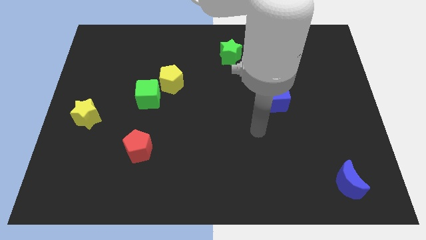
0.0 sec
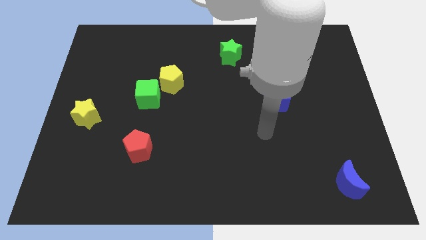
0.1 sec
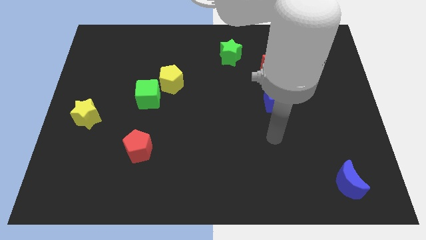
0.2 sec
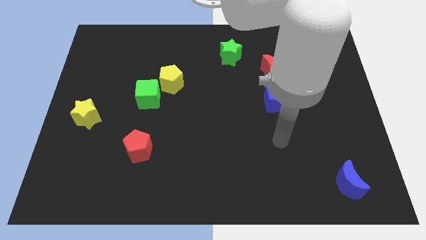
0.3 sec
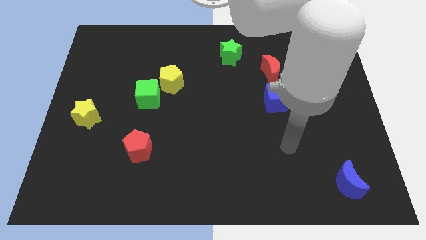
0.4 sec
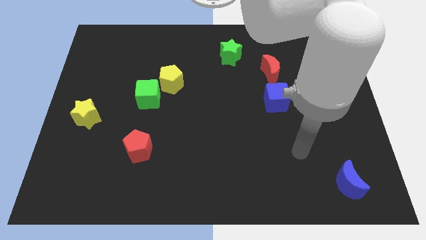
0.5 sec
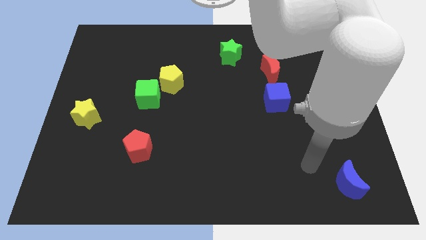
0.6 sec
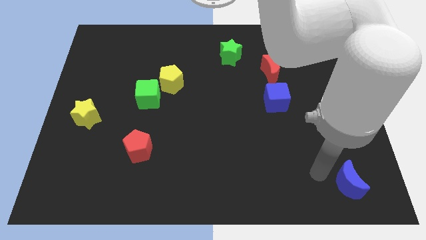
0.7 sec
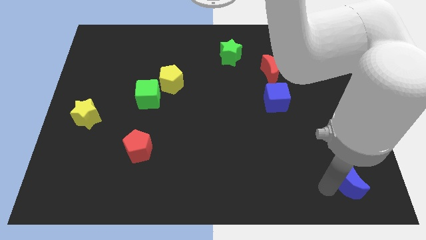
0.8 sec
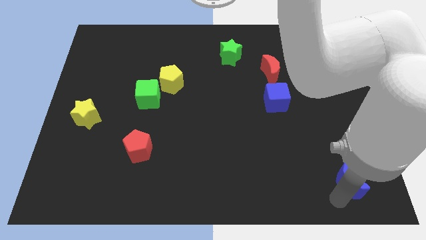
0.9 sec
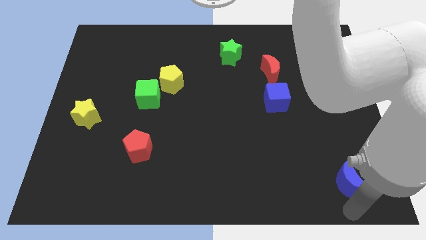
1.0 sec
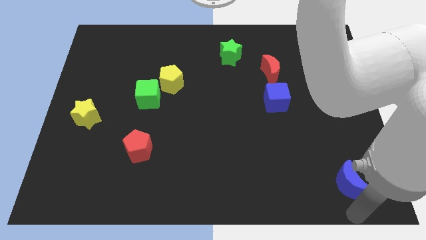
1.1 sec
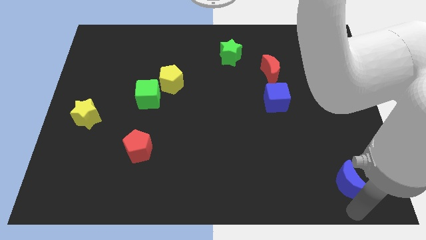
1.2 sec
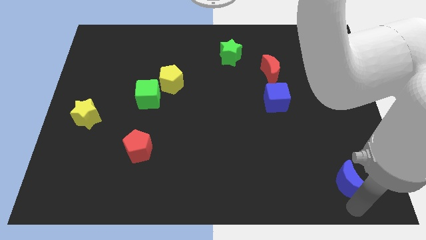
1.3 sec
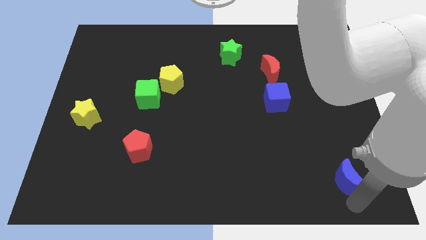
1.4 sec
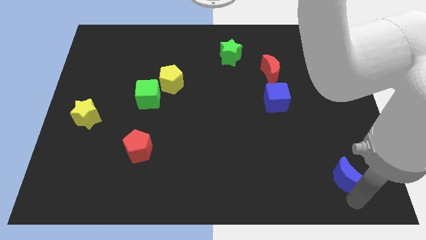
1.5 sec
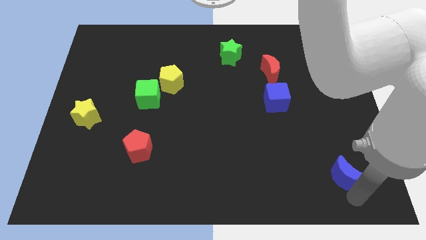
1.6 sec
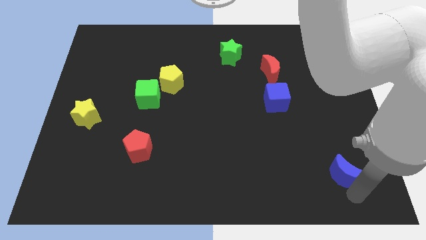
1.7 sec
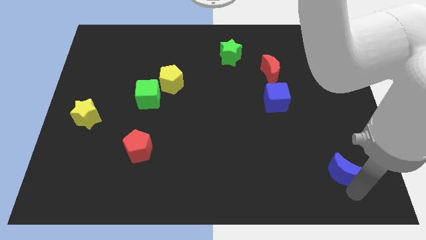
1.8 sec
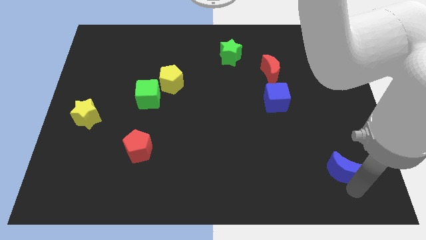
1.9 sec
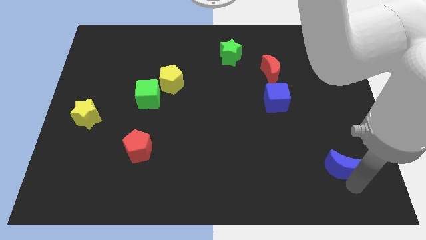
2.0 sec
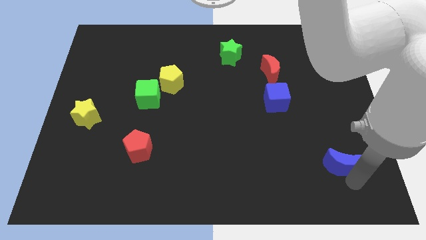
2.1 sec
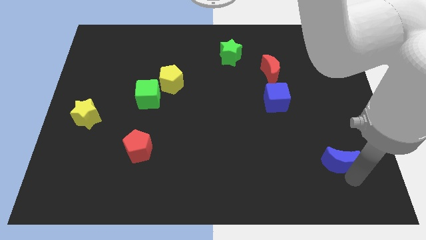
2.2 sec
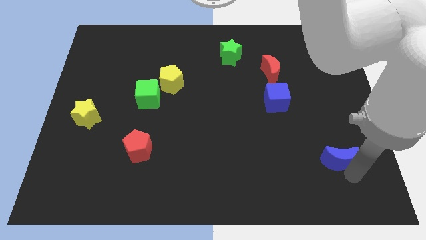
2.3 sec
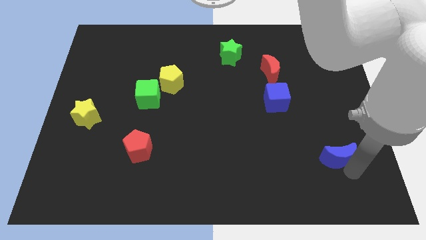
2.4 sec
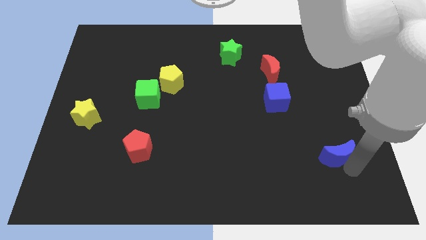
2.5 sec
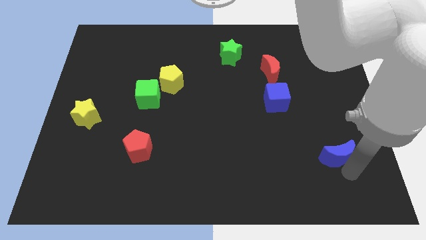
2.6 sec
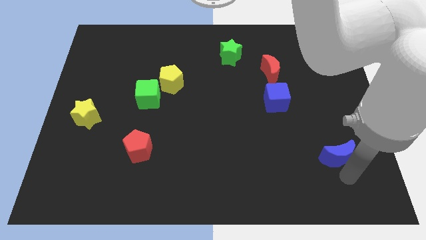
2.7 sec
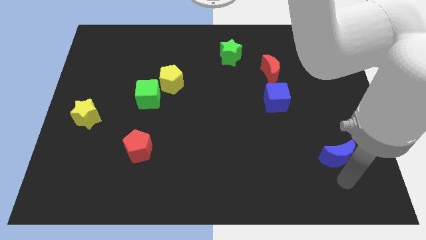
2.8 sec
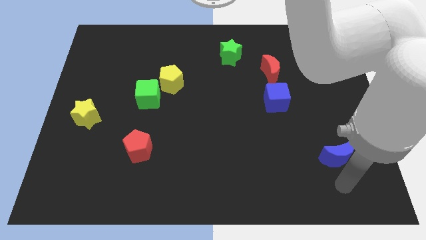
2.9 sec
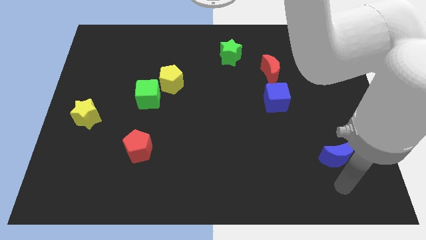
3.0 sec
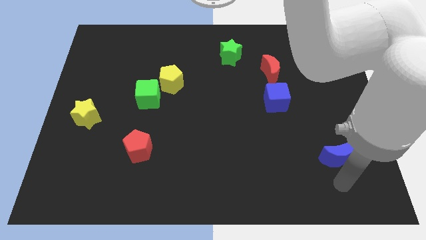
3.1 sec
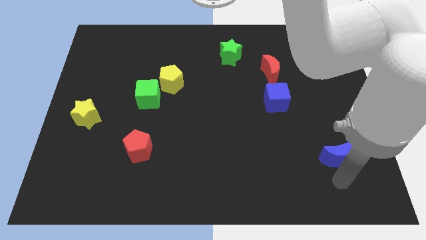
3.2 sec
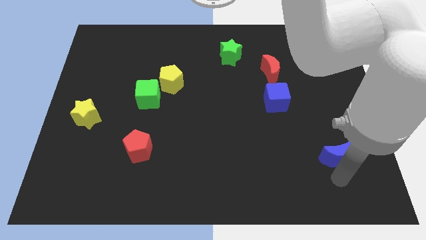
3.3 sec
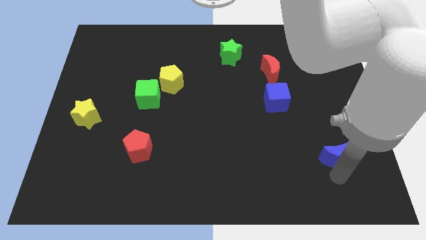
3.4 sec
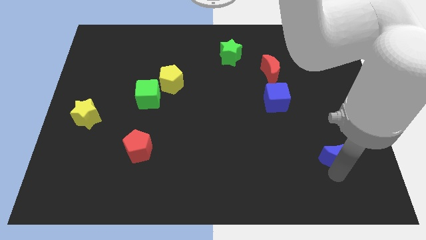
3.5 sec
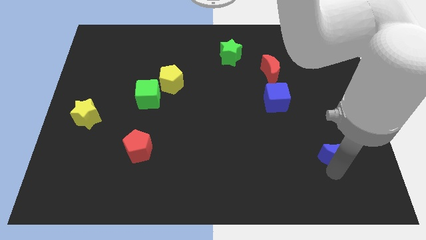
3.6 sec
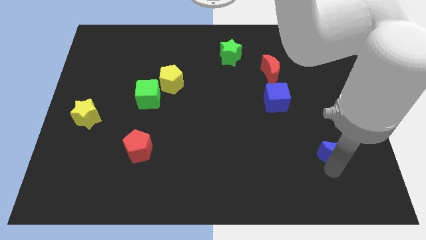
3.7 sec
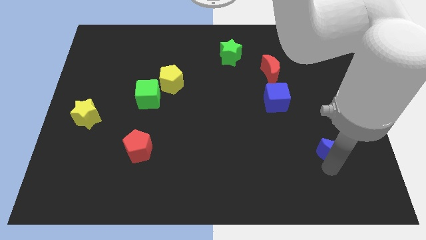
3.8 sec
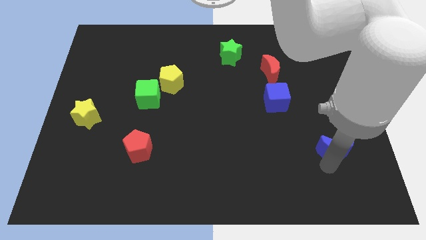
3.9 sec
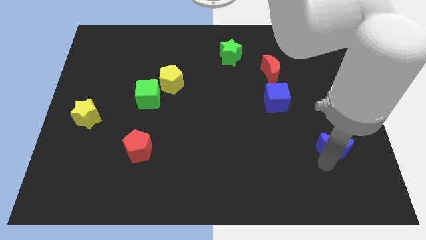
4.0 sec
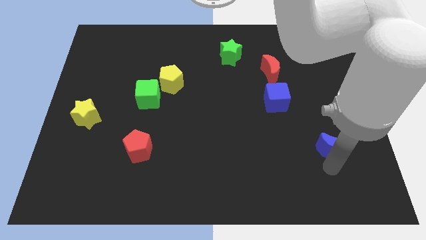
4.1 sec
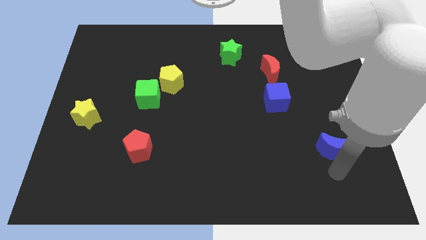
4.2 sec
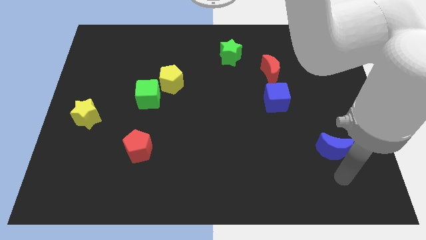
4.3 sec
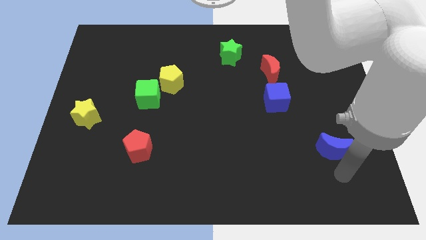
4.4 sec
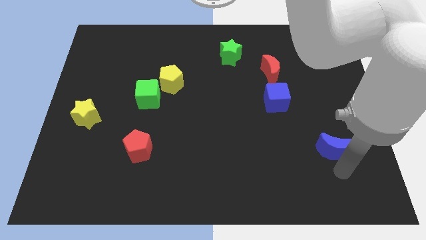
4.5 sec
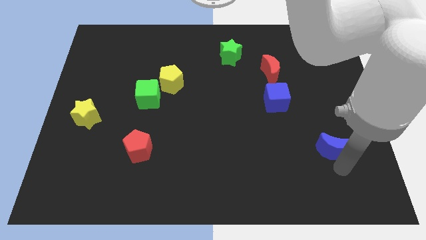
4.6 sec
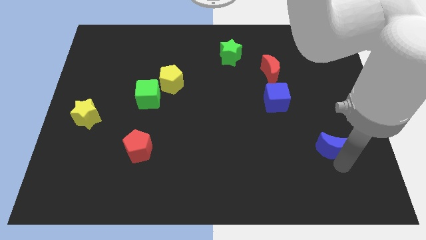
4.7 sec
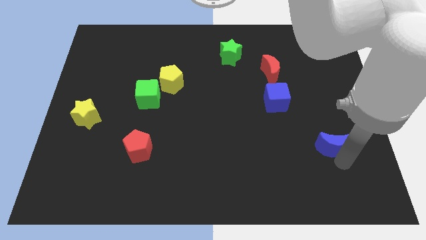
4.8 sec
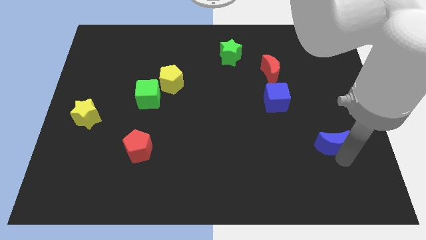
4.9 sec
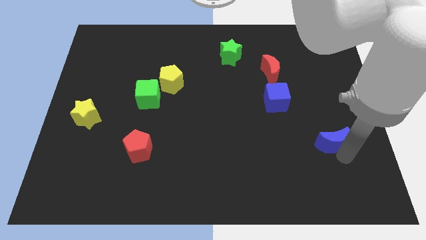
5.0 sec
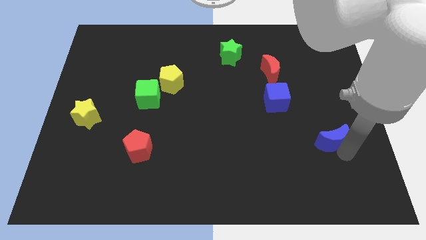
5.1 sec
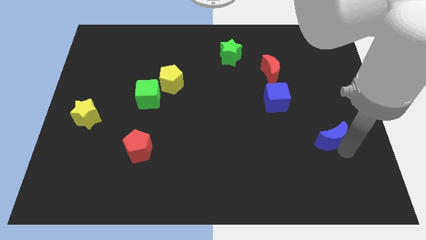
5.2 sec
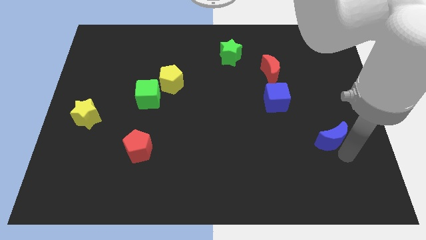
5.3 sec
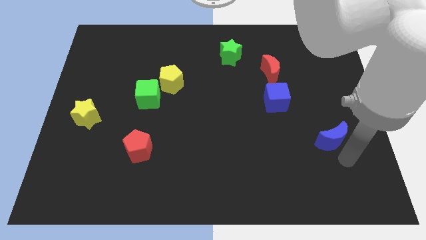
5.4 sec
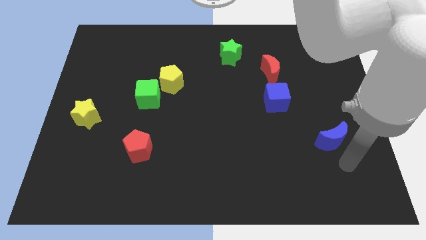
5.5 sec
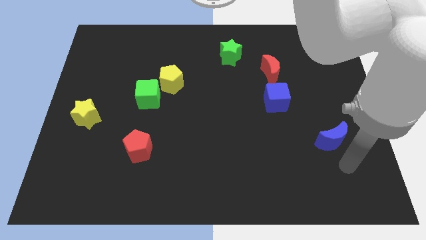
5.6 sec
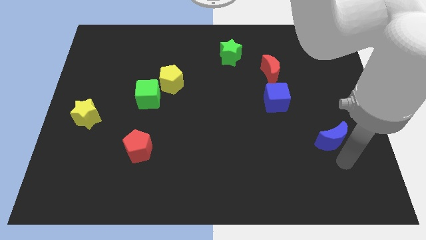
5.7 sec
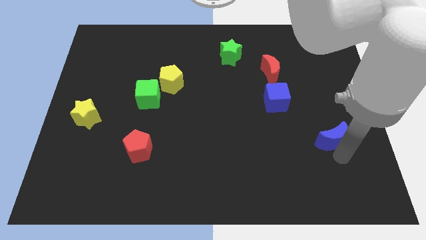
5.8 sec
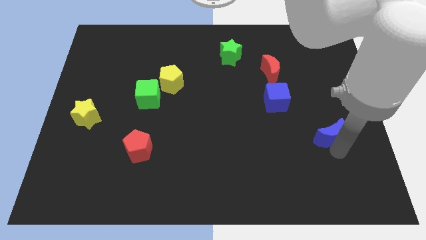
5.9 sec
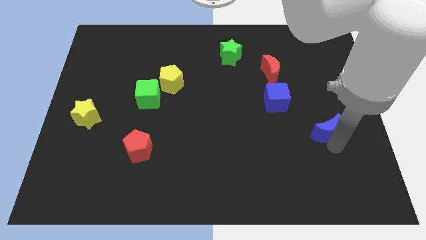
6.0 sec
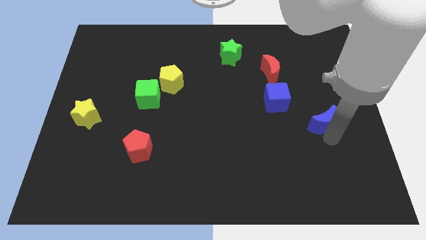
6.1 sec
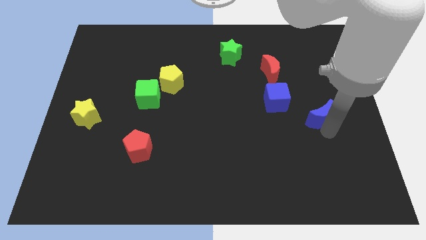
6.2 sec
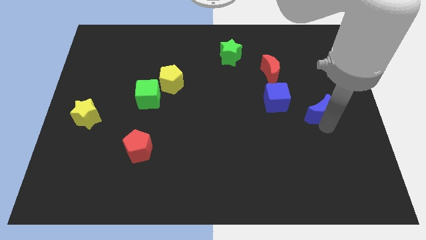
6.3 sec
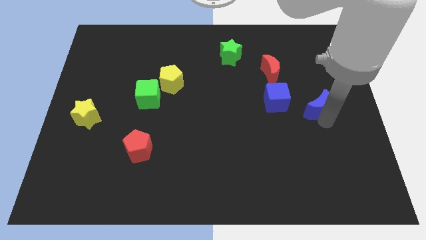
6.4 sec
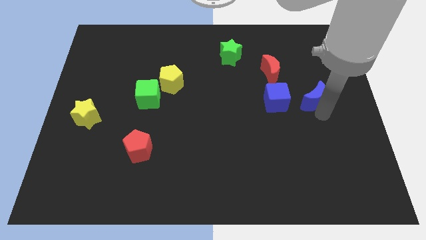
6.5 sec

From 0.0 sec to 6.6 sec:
push the blue moon to the bottom right side of the red moon
